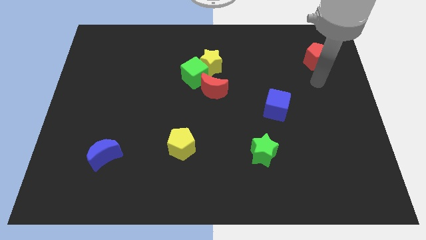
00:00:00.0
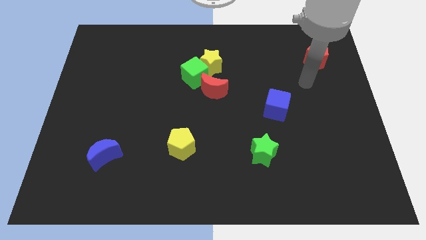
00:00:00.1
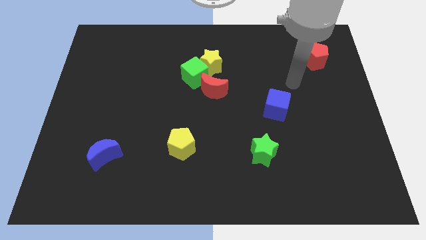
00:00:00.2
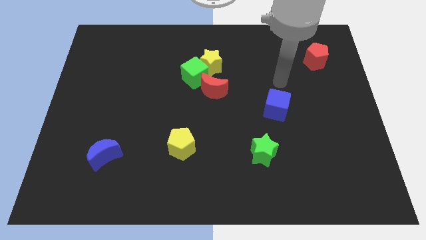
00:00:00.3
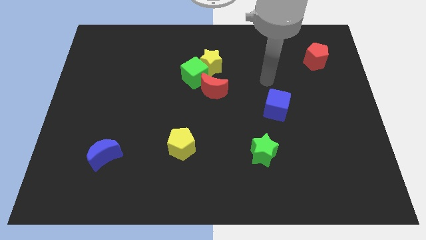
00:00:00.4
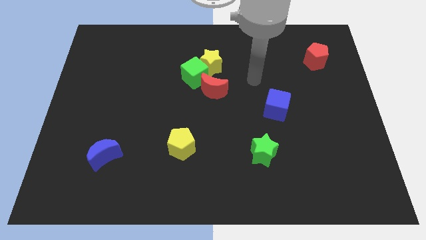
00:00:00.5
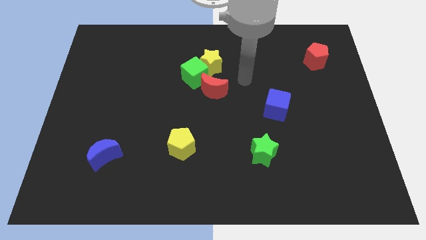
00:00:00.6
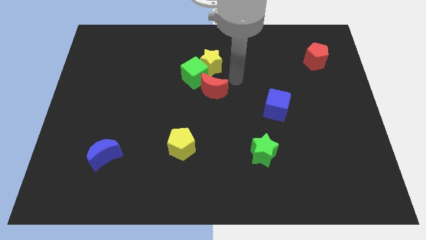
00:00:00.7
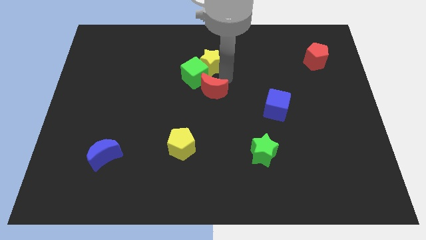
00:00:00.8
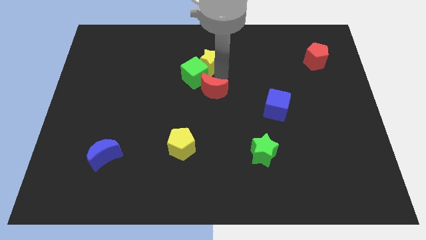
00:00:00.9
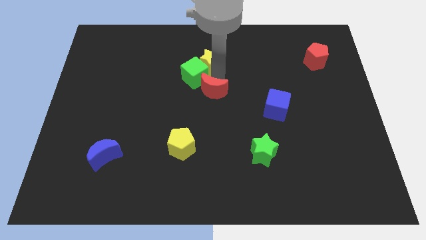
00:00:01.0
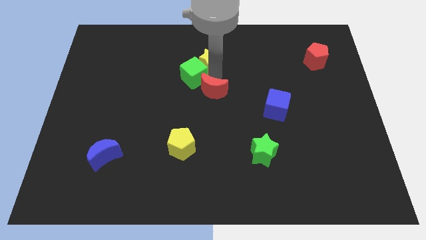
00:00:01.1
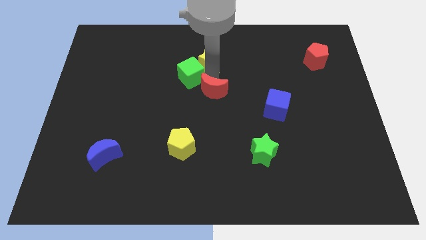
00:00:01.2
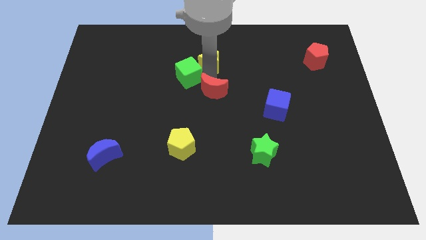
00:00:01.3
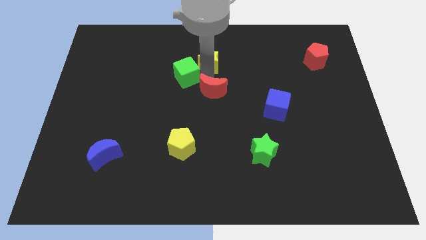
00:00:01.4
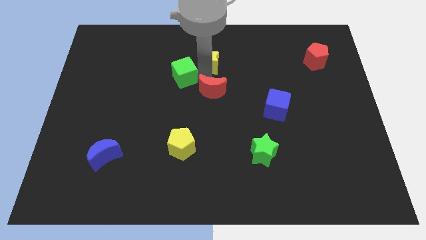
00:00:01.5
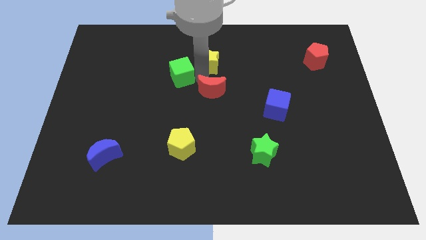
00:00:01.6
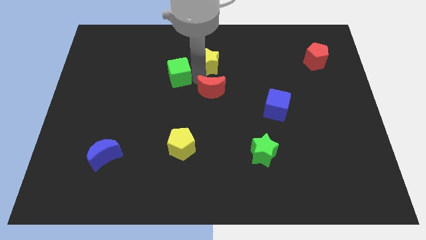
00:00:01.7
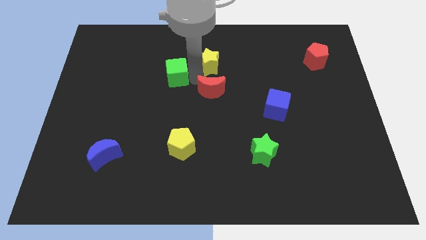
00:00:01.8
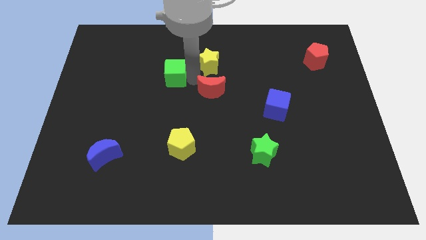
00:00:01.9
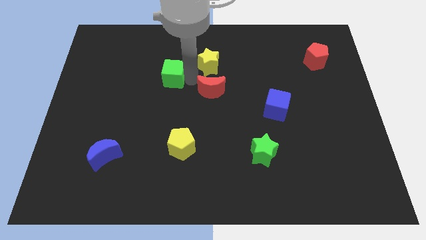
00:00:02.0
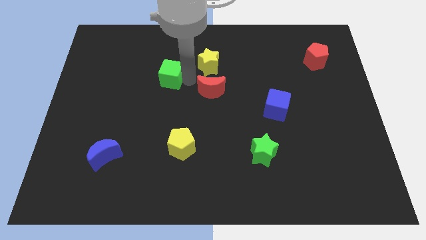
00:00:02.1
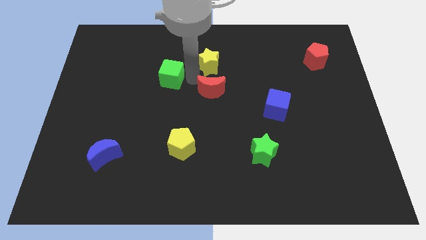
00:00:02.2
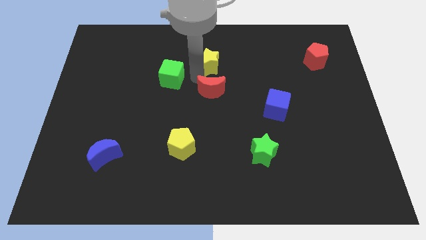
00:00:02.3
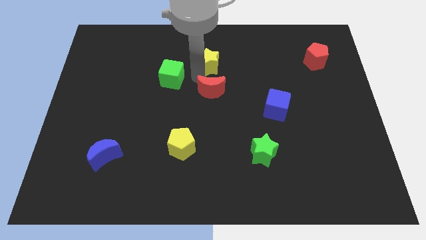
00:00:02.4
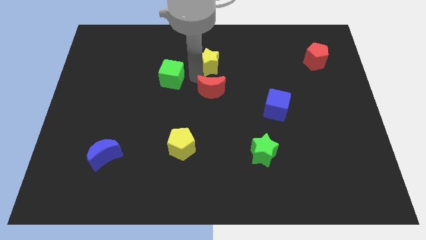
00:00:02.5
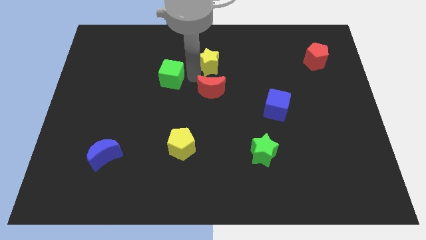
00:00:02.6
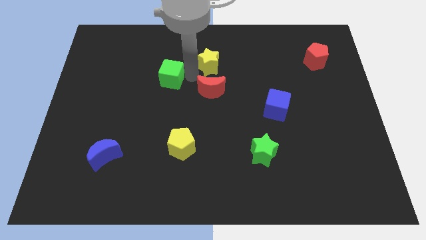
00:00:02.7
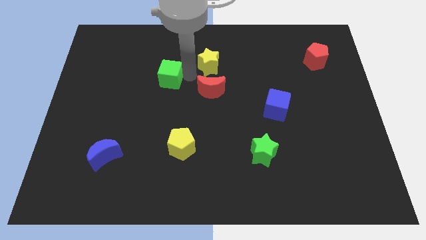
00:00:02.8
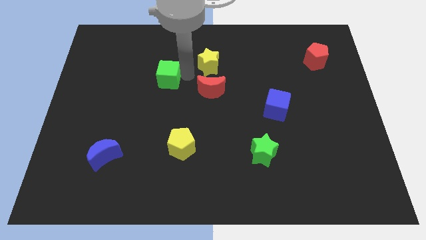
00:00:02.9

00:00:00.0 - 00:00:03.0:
separate the green cube from the yellow star and red moon

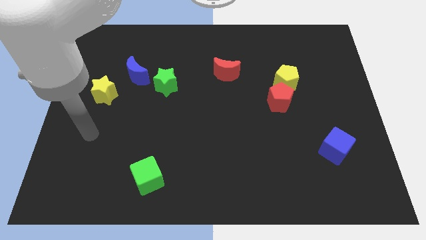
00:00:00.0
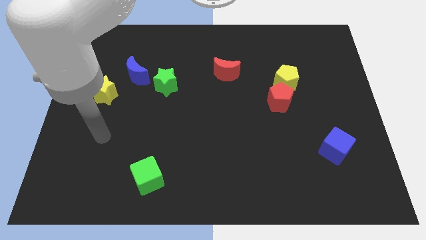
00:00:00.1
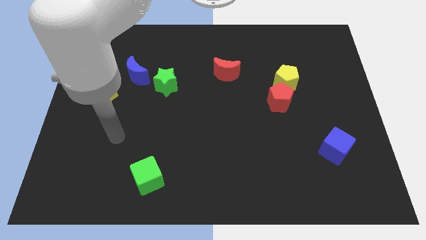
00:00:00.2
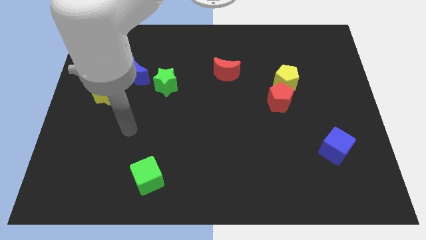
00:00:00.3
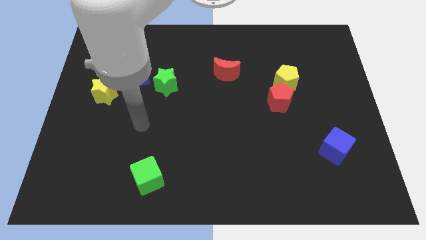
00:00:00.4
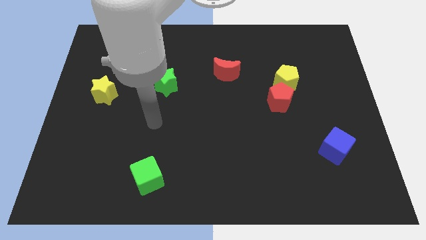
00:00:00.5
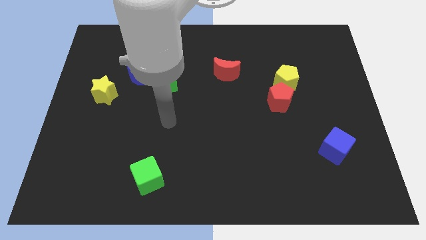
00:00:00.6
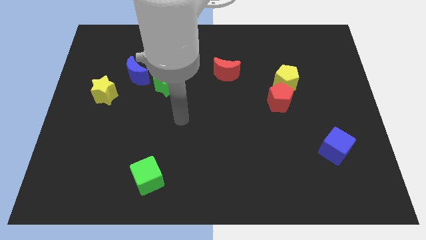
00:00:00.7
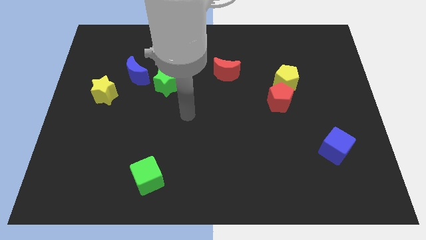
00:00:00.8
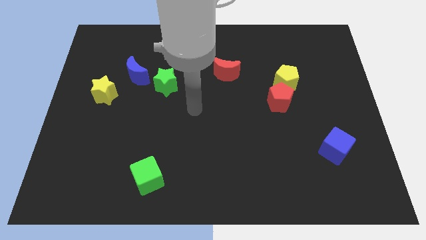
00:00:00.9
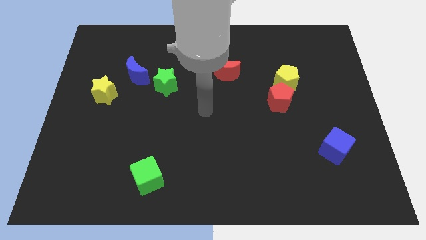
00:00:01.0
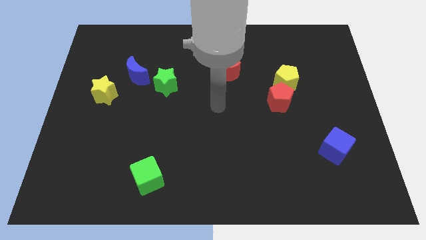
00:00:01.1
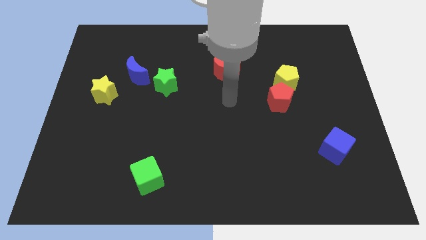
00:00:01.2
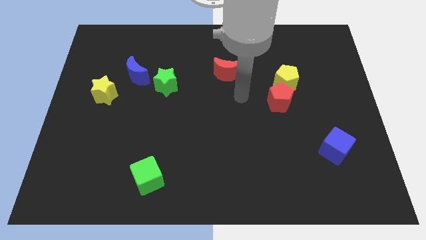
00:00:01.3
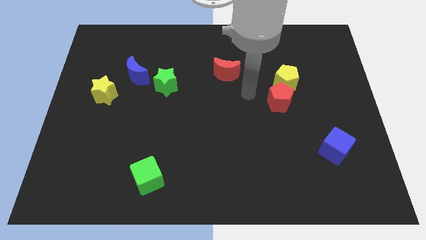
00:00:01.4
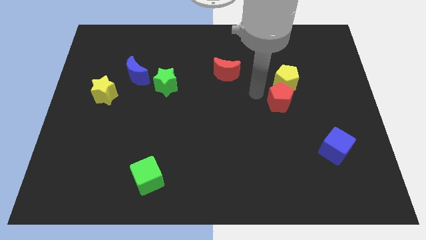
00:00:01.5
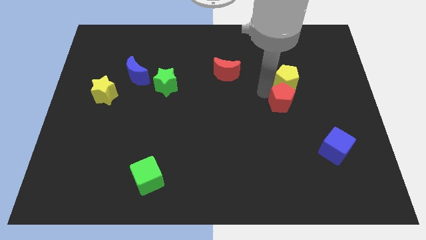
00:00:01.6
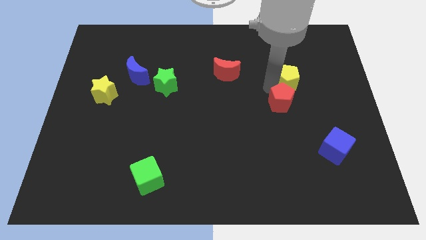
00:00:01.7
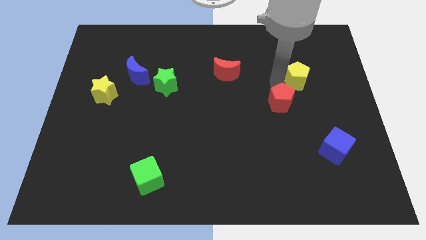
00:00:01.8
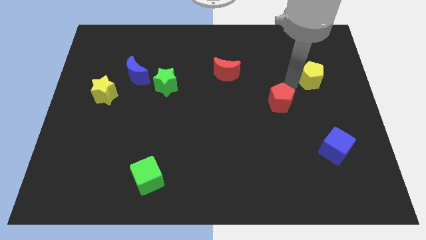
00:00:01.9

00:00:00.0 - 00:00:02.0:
pull the red pentagon apart from the yellow pentagon

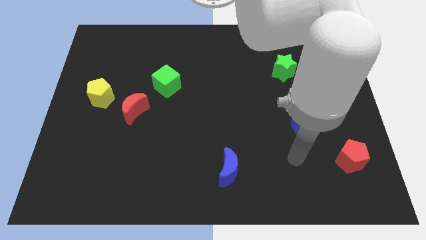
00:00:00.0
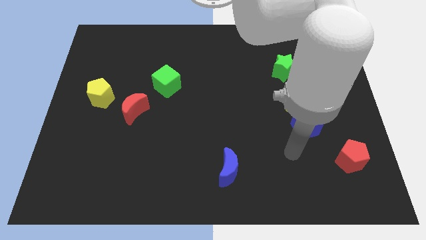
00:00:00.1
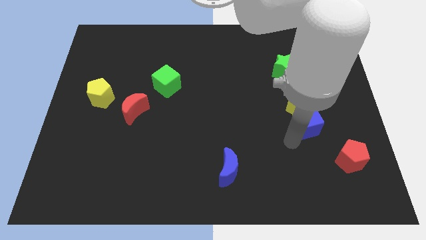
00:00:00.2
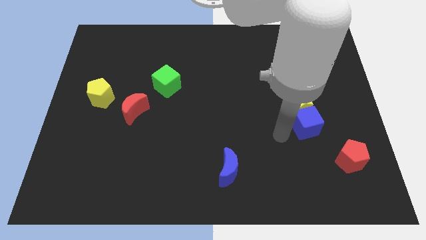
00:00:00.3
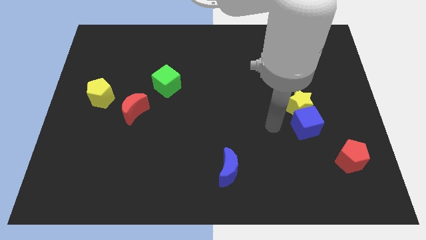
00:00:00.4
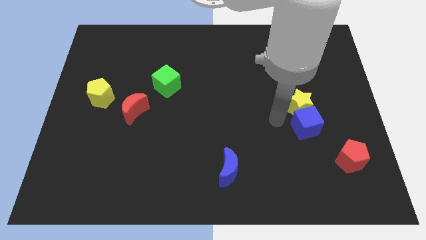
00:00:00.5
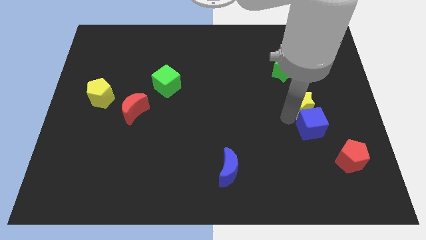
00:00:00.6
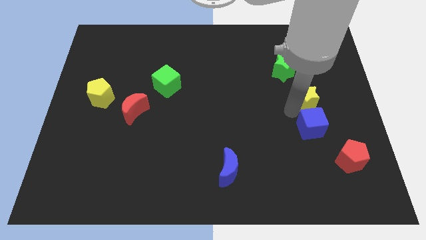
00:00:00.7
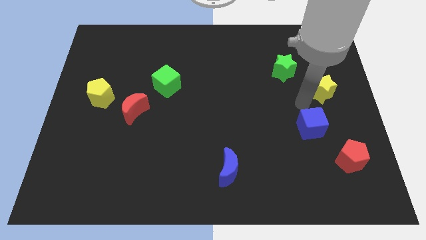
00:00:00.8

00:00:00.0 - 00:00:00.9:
move the blue cube away from the yellow star

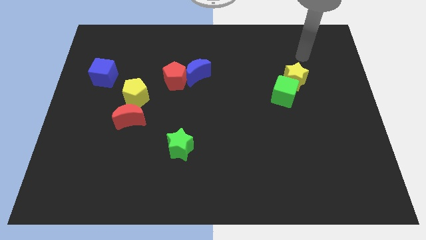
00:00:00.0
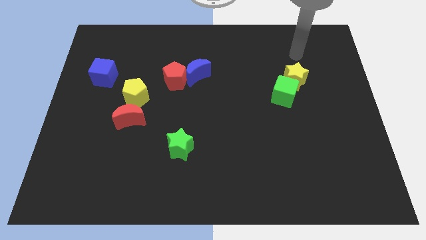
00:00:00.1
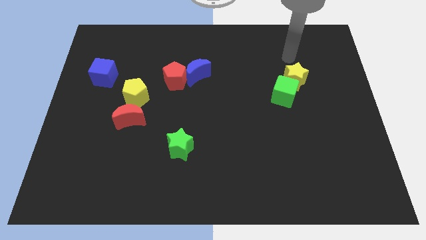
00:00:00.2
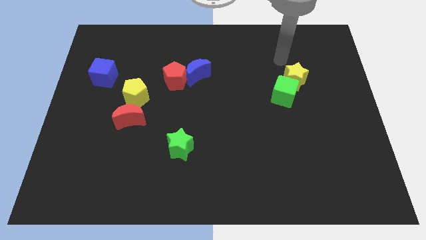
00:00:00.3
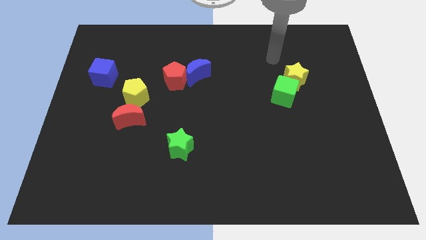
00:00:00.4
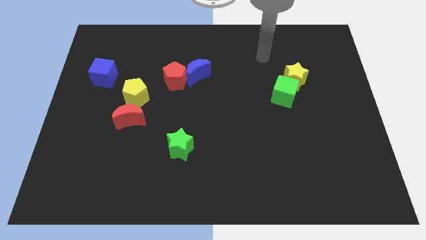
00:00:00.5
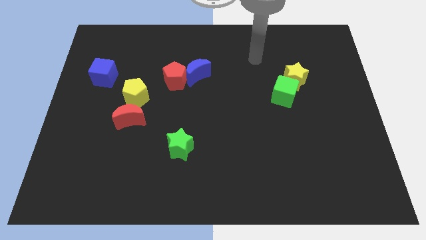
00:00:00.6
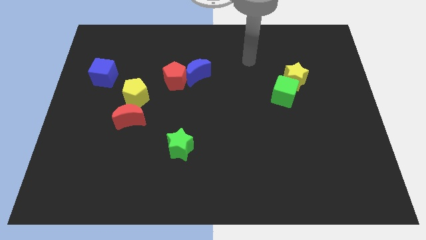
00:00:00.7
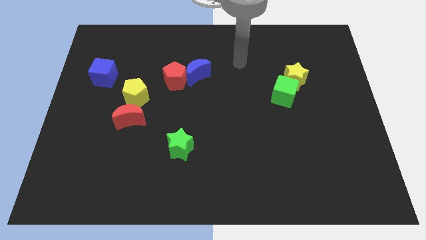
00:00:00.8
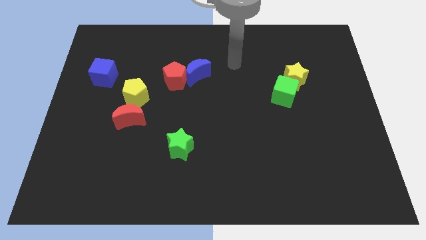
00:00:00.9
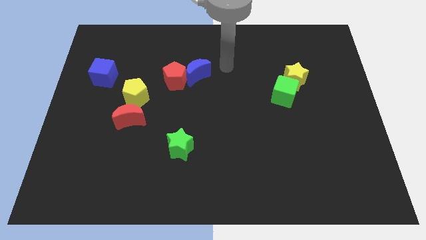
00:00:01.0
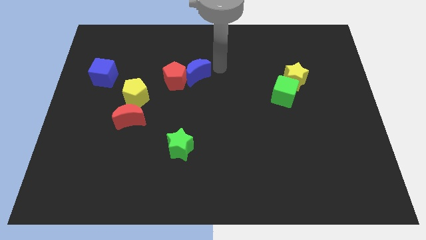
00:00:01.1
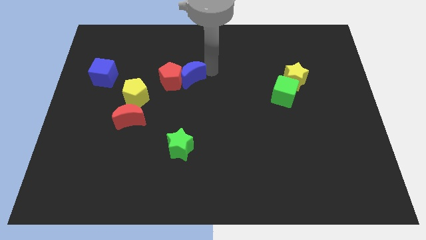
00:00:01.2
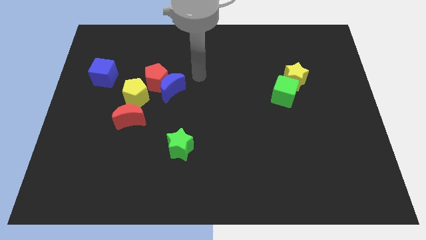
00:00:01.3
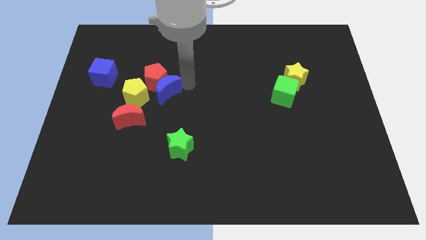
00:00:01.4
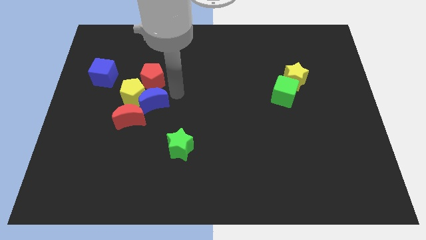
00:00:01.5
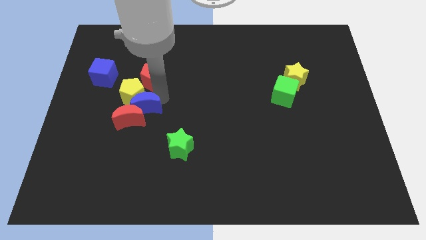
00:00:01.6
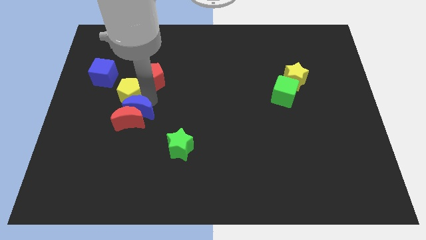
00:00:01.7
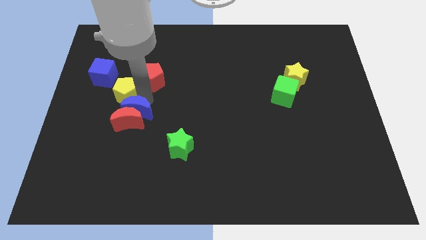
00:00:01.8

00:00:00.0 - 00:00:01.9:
separate the red pentagon from the blue moon

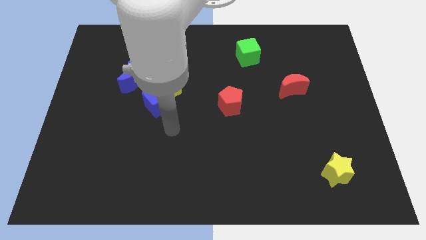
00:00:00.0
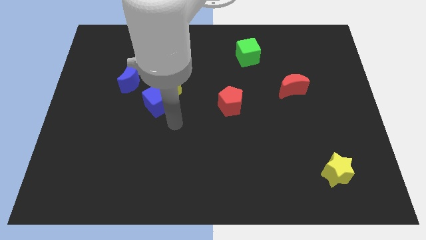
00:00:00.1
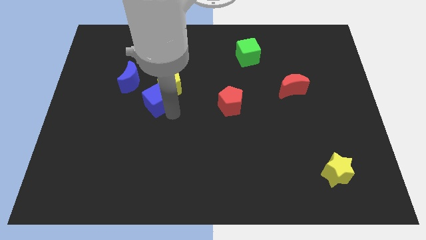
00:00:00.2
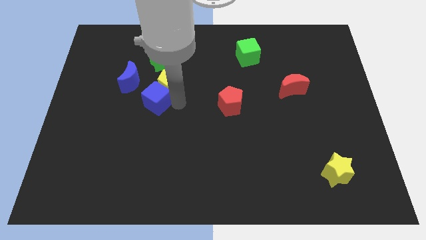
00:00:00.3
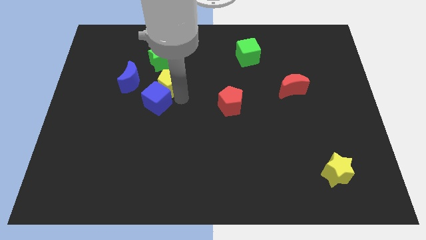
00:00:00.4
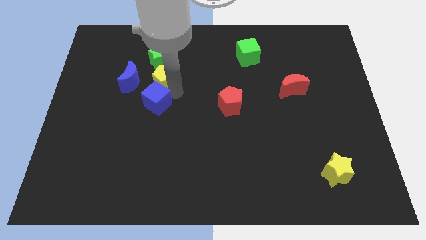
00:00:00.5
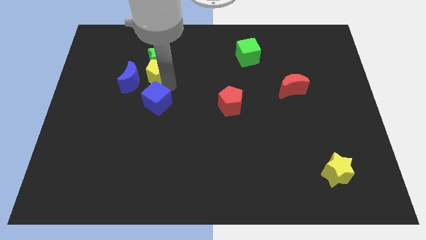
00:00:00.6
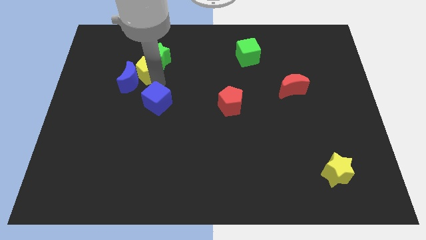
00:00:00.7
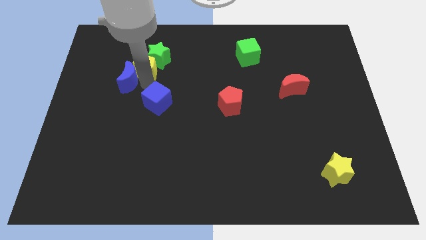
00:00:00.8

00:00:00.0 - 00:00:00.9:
separate the blue cube from the yellow pentagon and blue moon

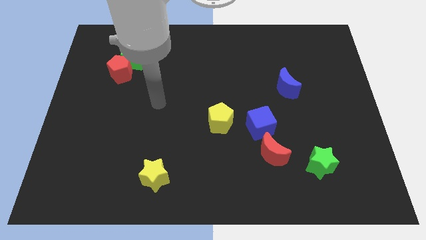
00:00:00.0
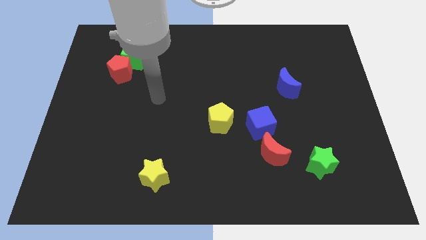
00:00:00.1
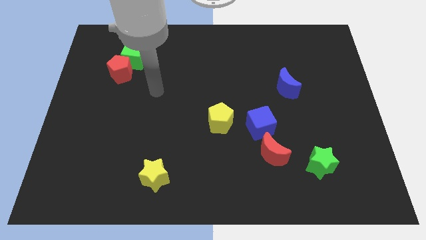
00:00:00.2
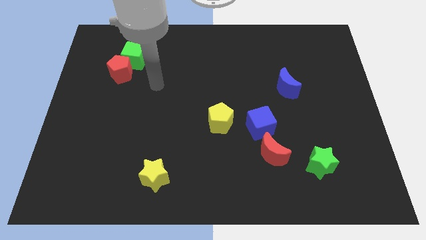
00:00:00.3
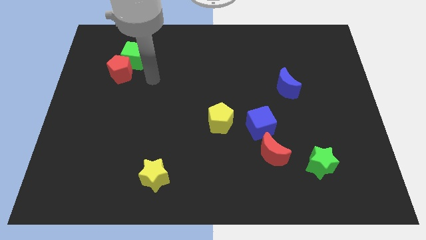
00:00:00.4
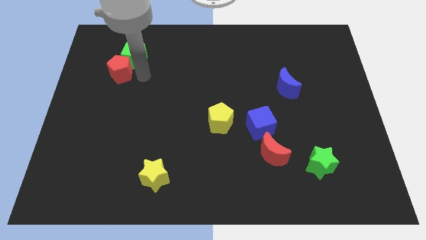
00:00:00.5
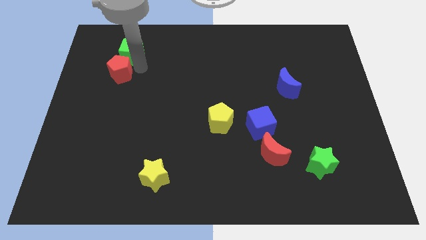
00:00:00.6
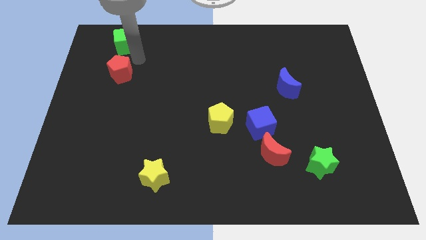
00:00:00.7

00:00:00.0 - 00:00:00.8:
separate the red pentagon from the green cube
